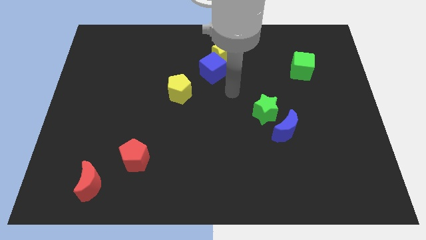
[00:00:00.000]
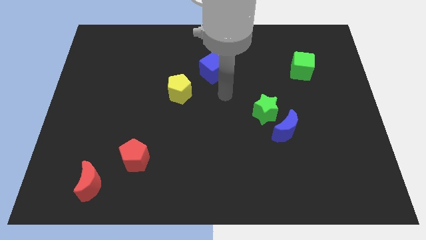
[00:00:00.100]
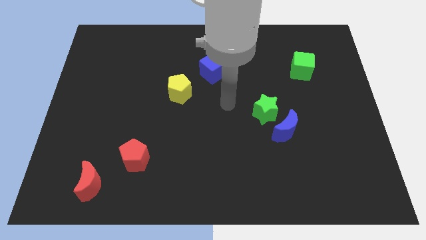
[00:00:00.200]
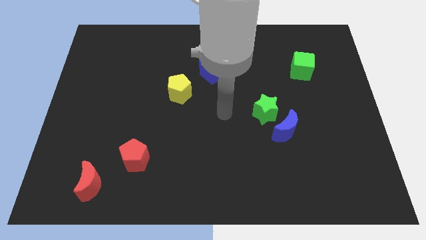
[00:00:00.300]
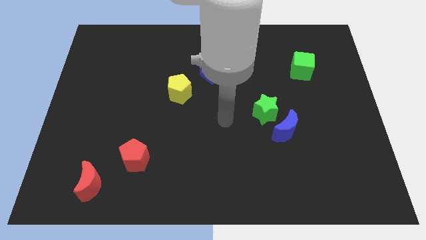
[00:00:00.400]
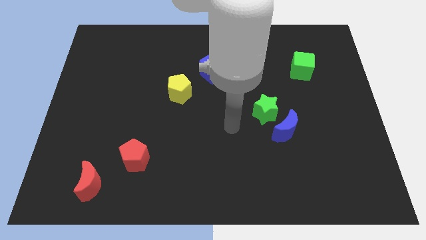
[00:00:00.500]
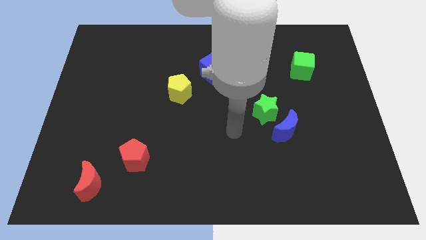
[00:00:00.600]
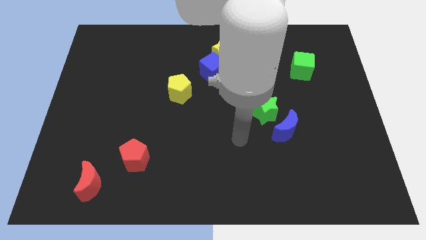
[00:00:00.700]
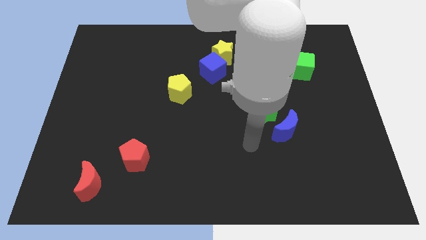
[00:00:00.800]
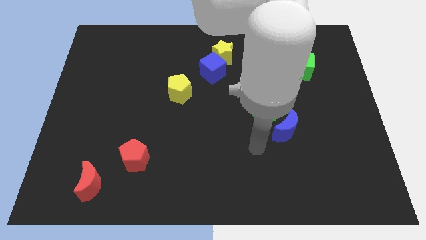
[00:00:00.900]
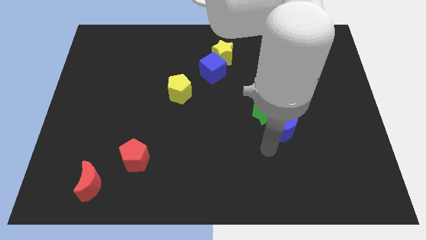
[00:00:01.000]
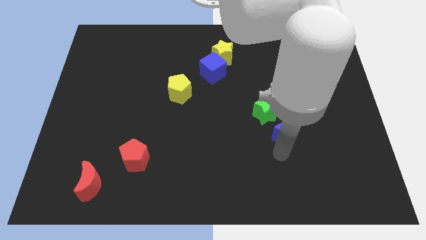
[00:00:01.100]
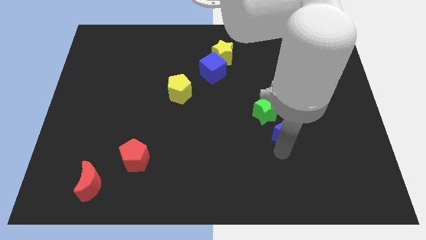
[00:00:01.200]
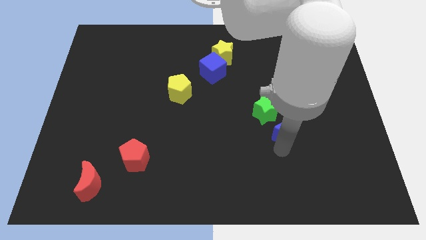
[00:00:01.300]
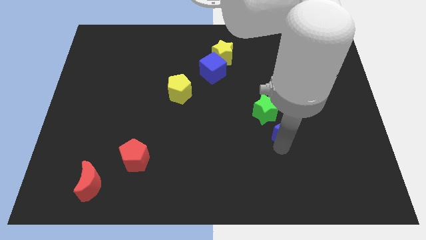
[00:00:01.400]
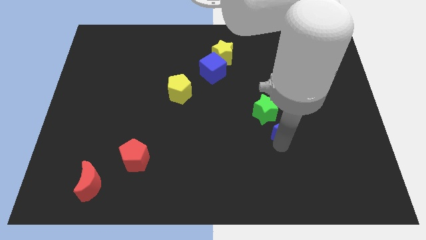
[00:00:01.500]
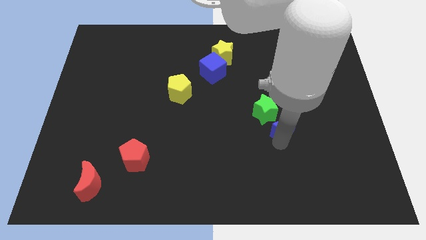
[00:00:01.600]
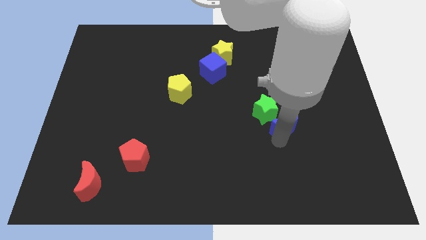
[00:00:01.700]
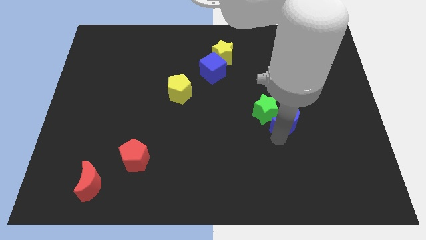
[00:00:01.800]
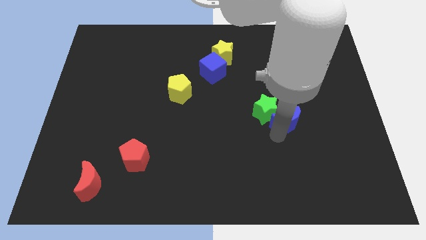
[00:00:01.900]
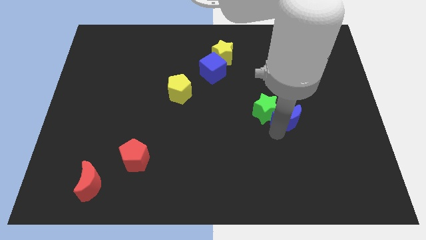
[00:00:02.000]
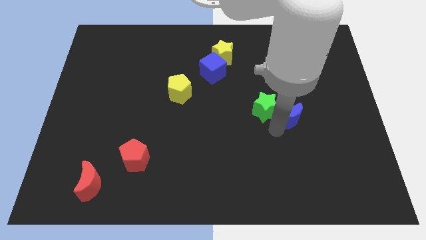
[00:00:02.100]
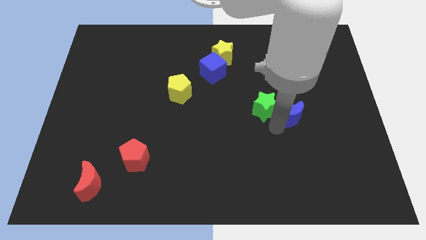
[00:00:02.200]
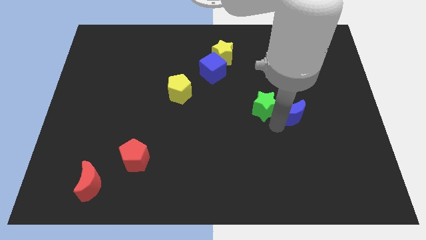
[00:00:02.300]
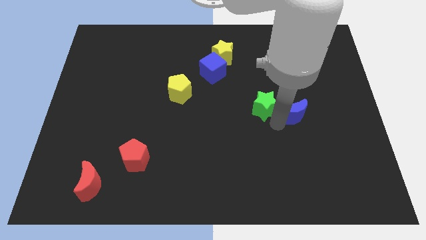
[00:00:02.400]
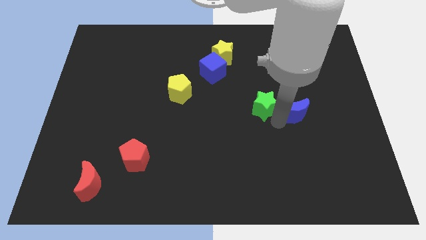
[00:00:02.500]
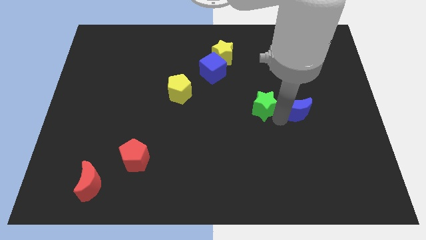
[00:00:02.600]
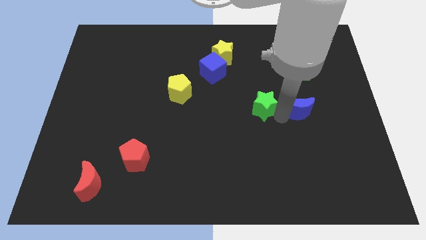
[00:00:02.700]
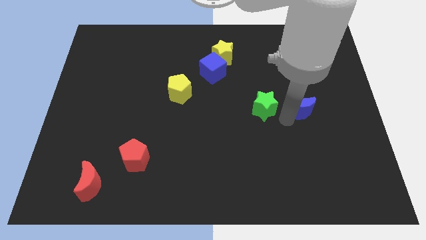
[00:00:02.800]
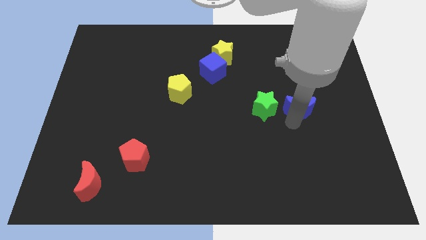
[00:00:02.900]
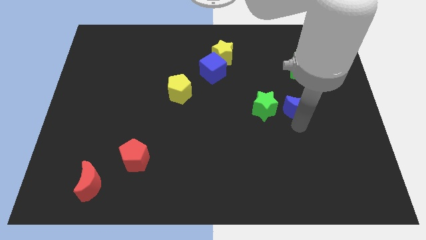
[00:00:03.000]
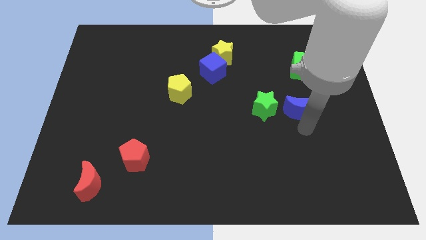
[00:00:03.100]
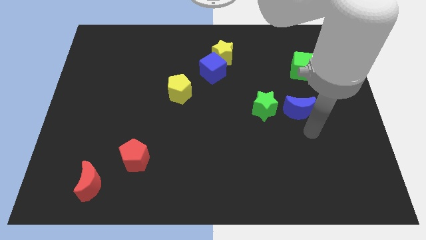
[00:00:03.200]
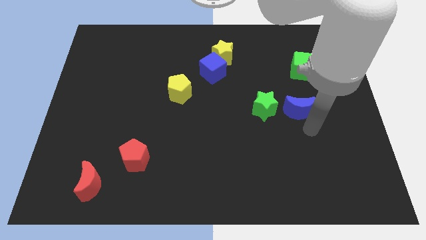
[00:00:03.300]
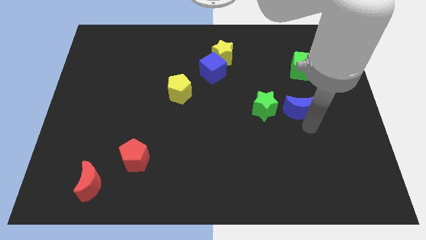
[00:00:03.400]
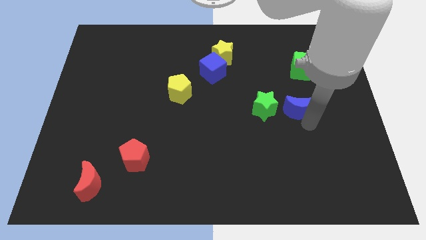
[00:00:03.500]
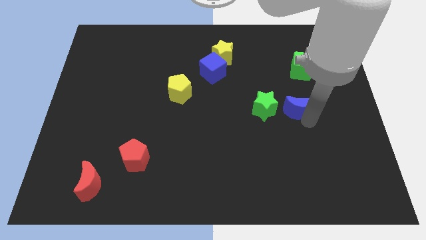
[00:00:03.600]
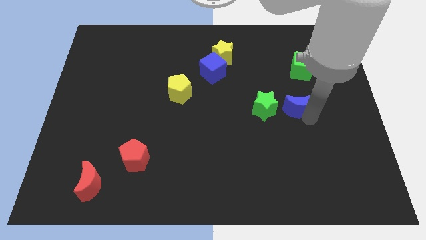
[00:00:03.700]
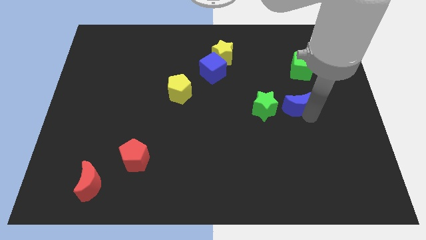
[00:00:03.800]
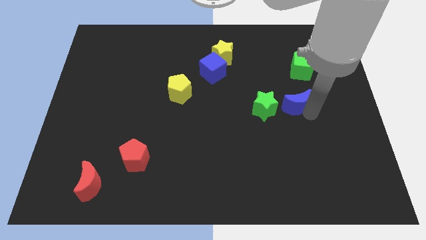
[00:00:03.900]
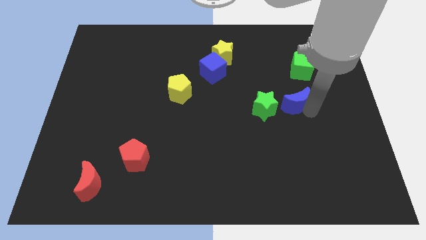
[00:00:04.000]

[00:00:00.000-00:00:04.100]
slide the blue moon up a bit

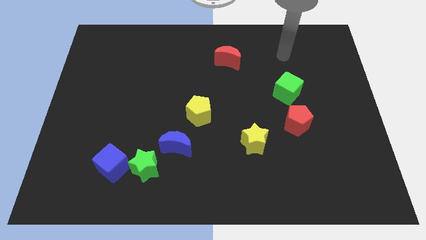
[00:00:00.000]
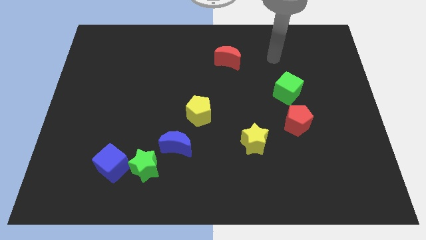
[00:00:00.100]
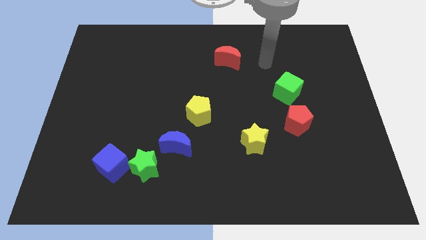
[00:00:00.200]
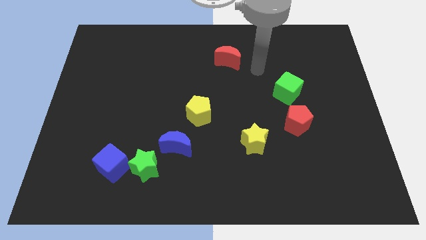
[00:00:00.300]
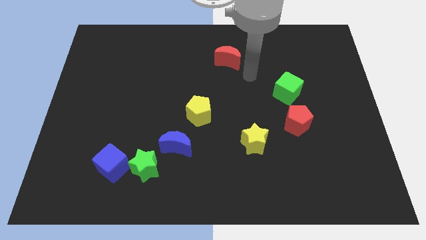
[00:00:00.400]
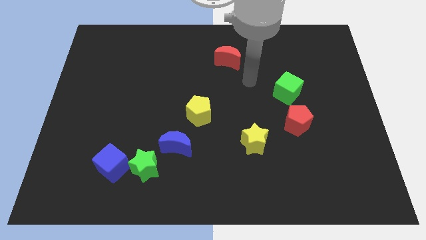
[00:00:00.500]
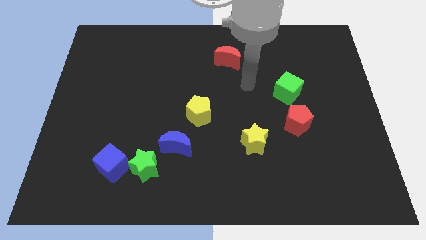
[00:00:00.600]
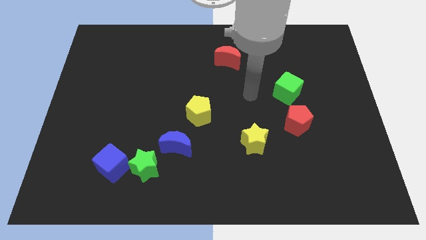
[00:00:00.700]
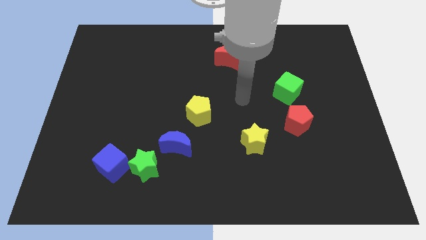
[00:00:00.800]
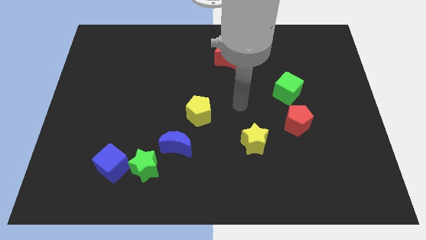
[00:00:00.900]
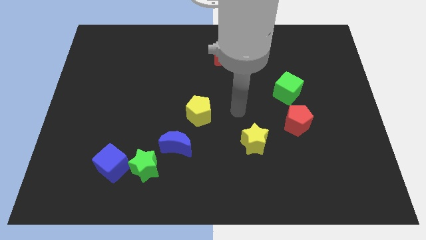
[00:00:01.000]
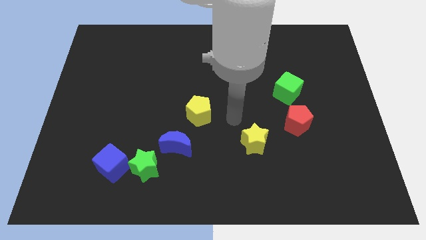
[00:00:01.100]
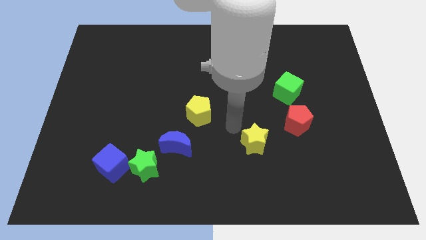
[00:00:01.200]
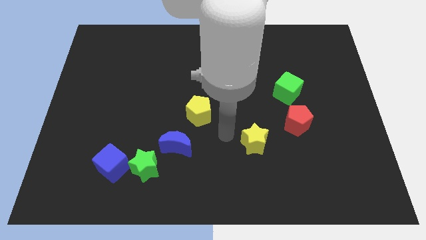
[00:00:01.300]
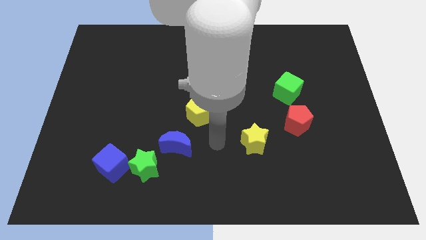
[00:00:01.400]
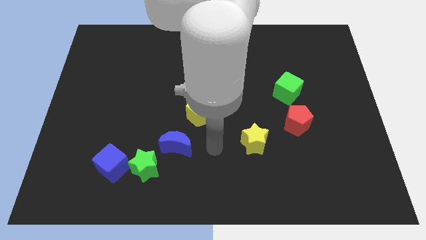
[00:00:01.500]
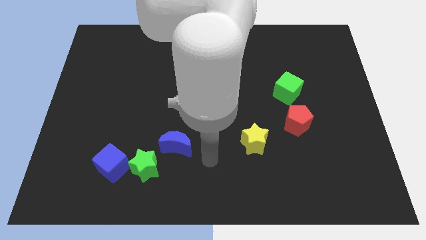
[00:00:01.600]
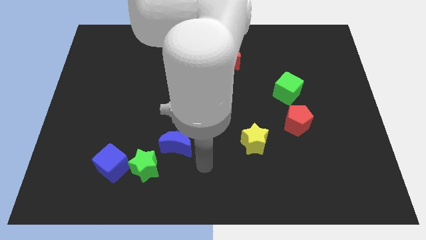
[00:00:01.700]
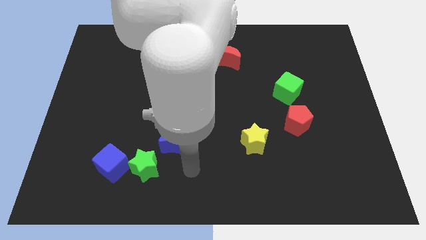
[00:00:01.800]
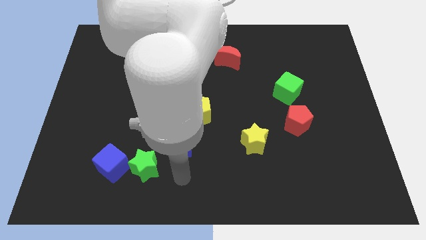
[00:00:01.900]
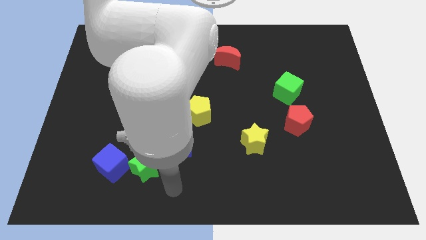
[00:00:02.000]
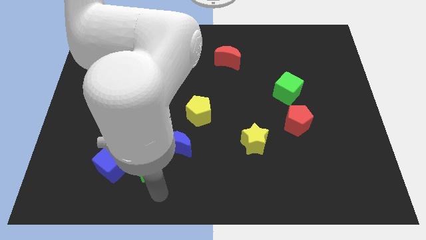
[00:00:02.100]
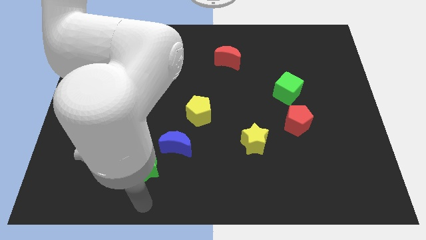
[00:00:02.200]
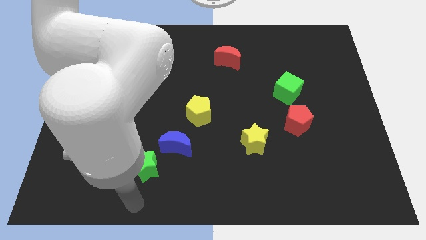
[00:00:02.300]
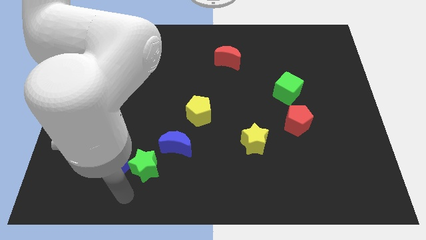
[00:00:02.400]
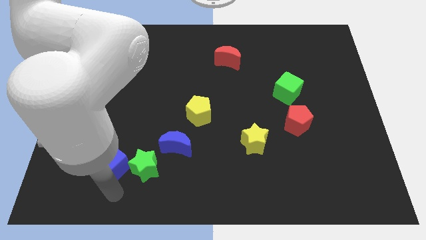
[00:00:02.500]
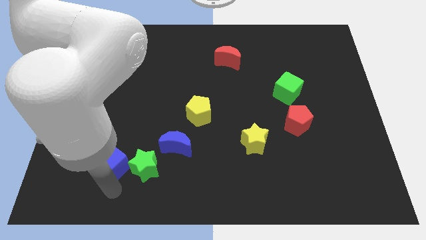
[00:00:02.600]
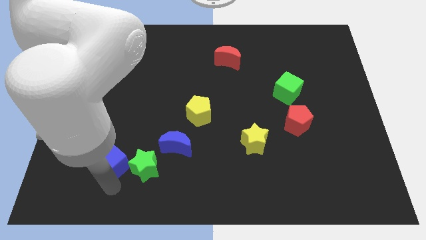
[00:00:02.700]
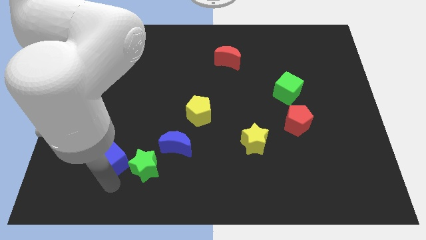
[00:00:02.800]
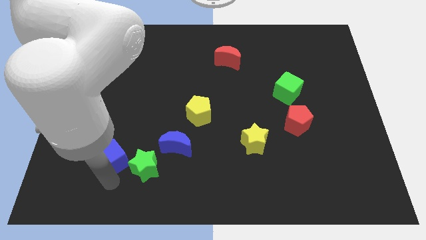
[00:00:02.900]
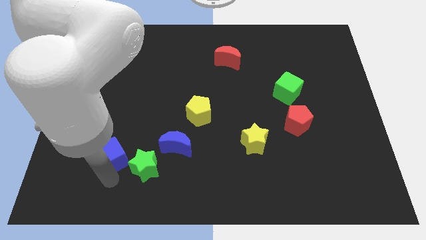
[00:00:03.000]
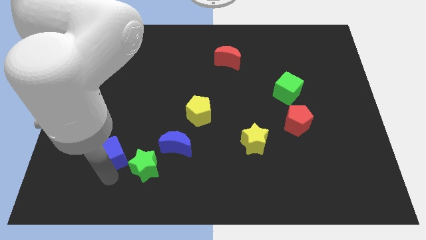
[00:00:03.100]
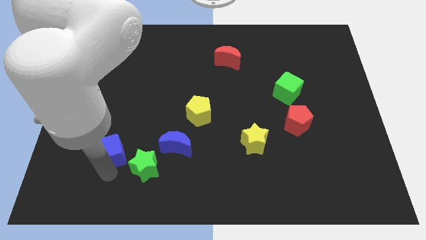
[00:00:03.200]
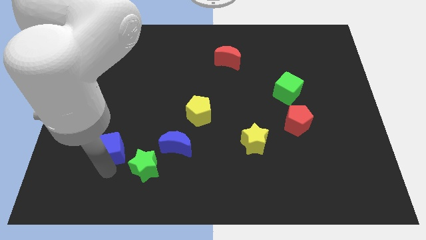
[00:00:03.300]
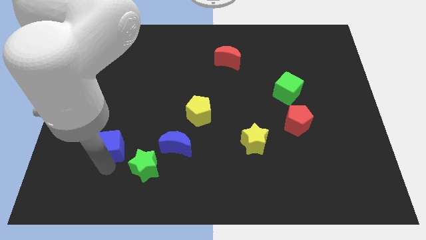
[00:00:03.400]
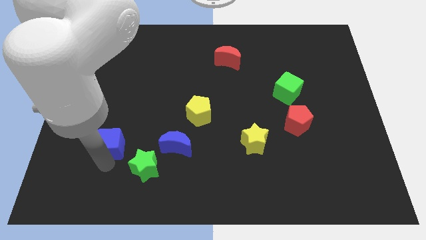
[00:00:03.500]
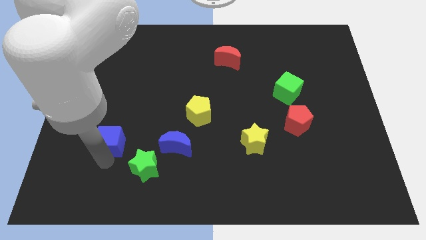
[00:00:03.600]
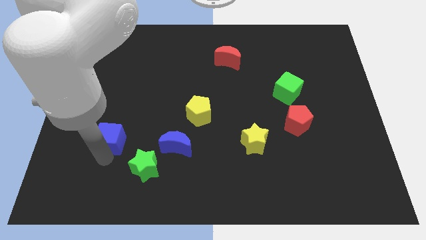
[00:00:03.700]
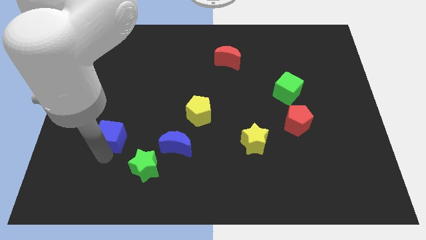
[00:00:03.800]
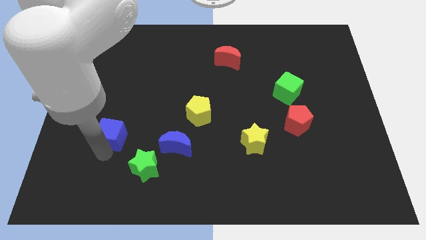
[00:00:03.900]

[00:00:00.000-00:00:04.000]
move the blue cube a little up
